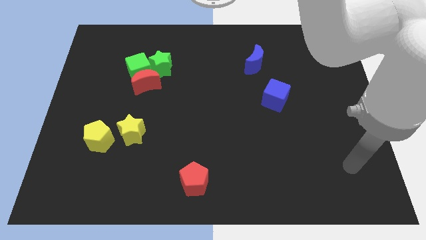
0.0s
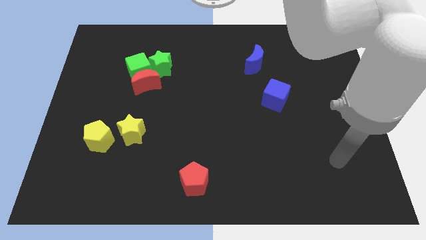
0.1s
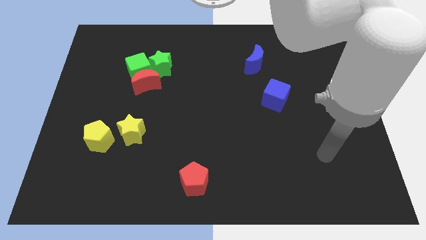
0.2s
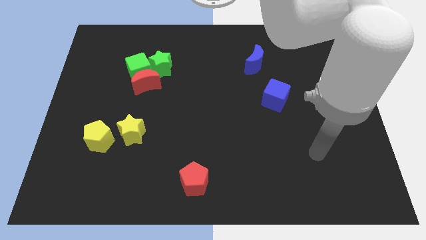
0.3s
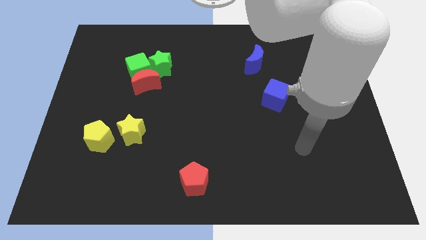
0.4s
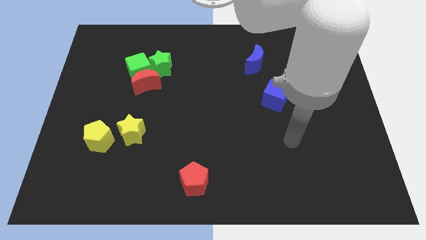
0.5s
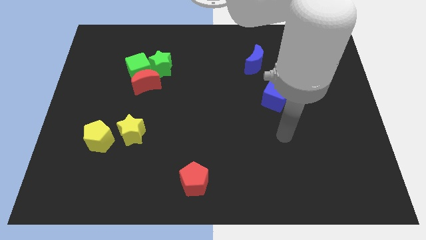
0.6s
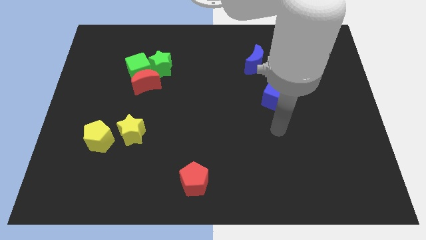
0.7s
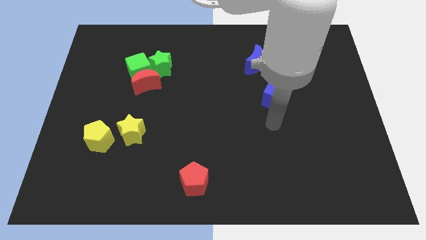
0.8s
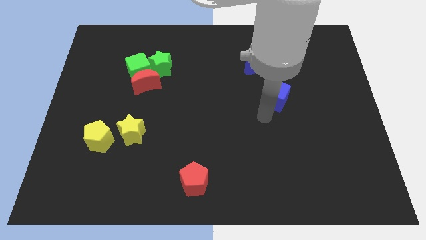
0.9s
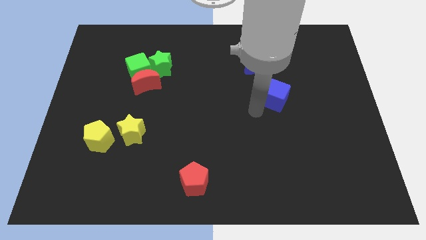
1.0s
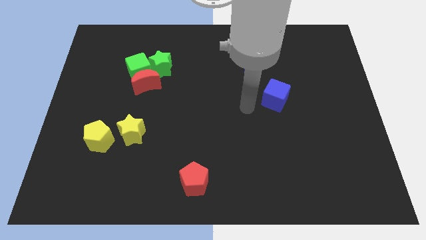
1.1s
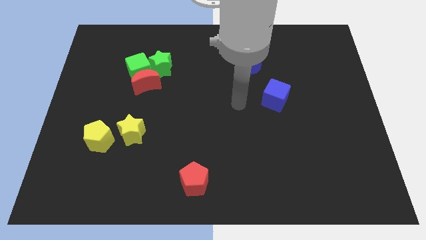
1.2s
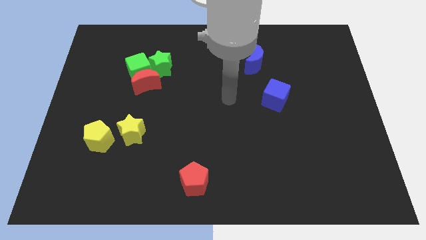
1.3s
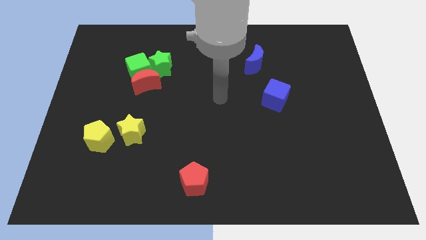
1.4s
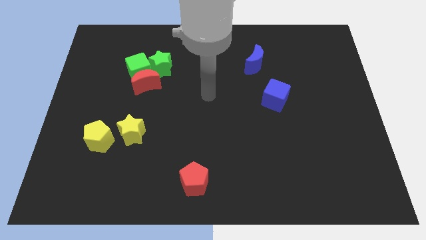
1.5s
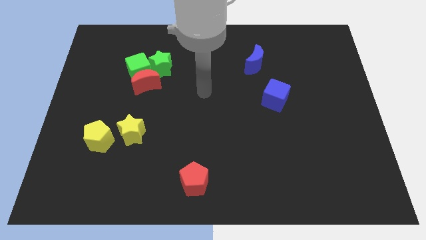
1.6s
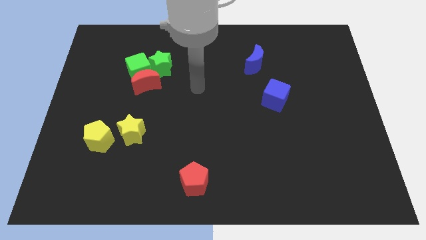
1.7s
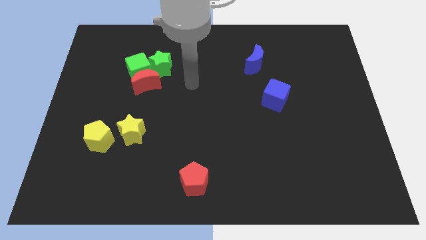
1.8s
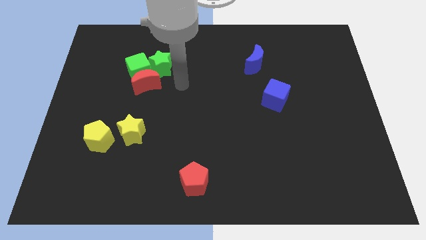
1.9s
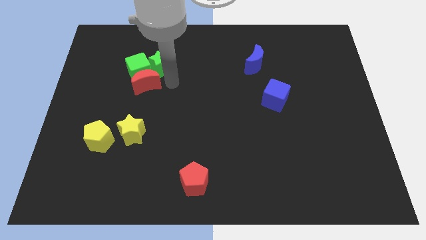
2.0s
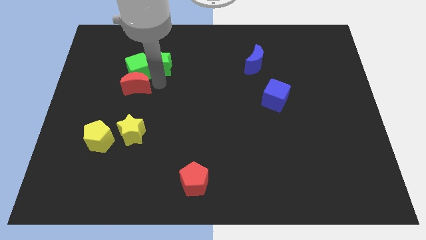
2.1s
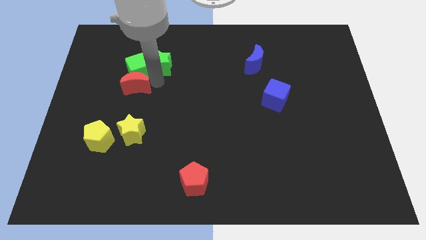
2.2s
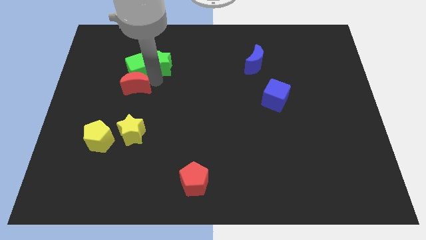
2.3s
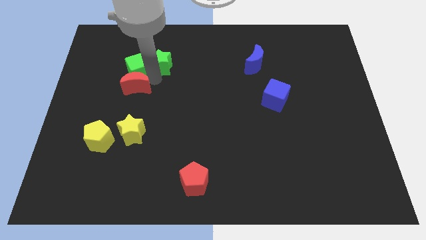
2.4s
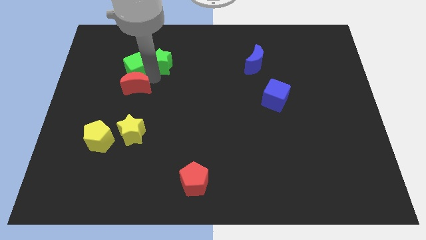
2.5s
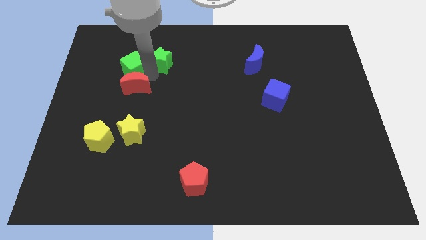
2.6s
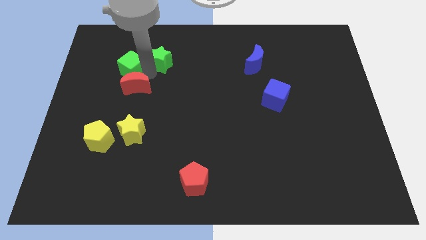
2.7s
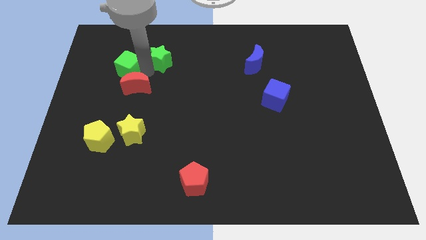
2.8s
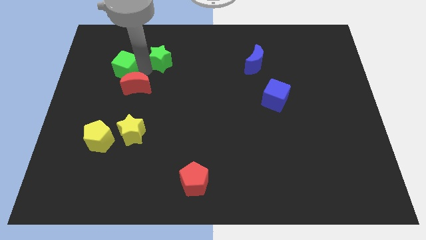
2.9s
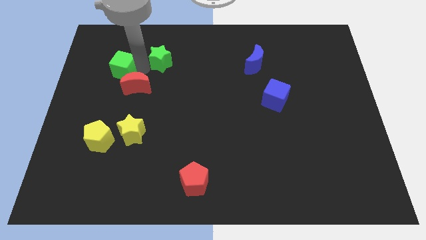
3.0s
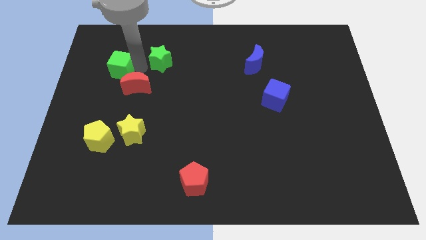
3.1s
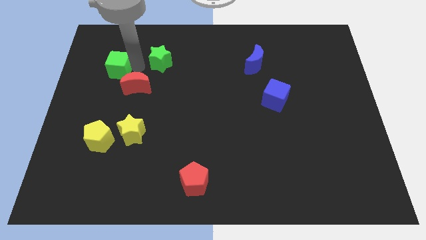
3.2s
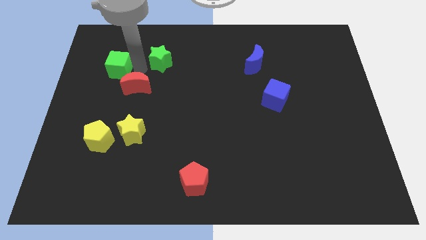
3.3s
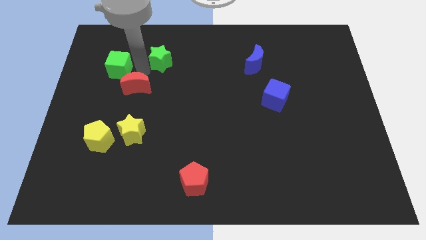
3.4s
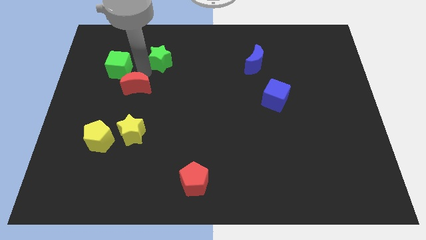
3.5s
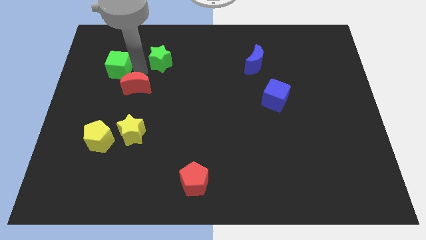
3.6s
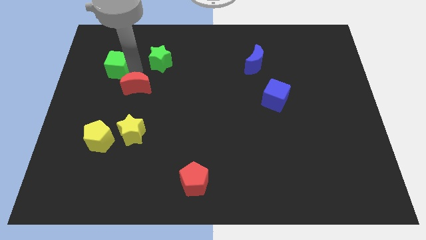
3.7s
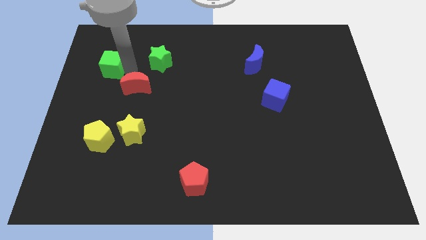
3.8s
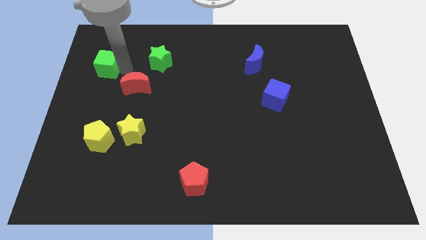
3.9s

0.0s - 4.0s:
separate the green cube from the red moon and green star

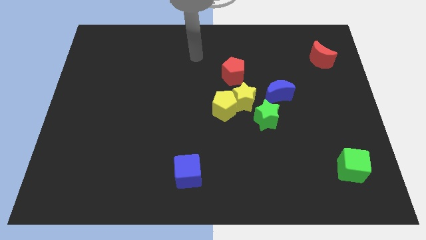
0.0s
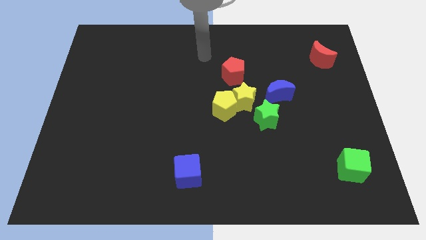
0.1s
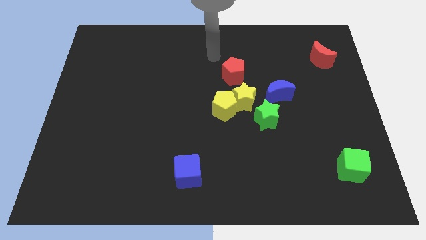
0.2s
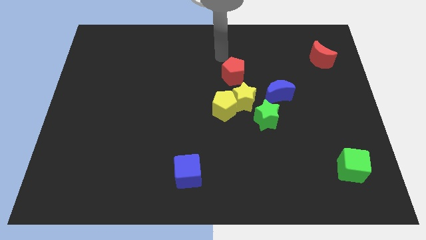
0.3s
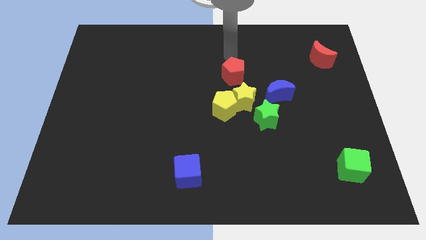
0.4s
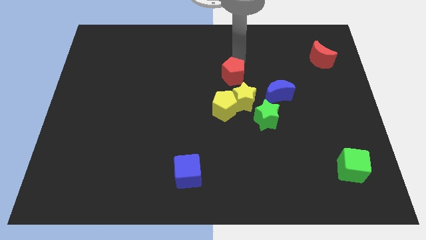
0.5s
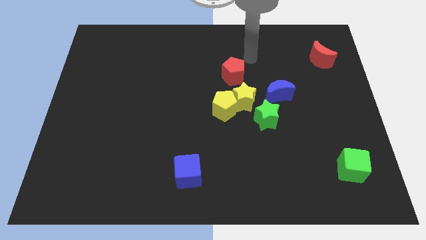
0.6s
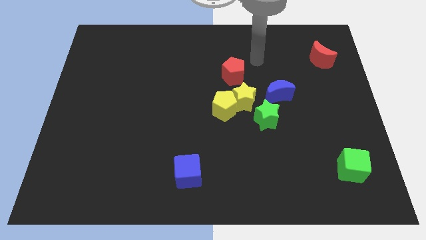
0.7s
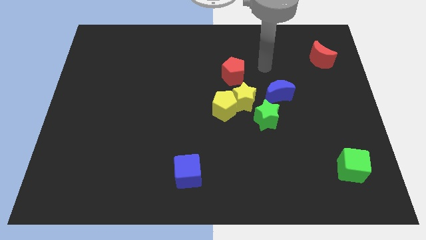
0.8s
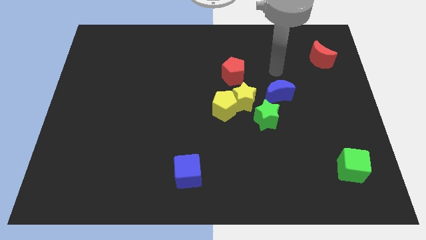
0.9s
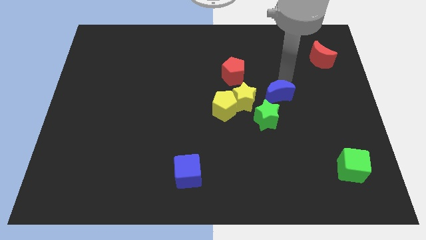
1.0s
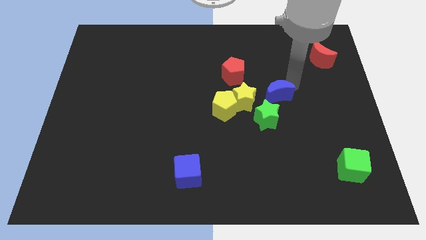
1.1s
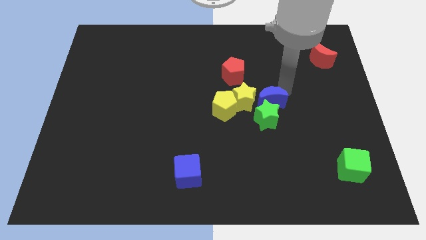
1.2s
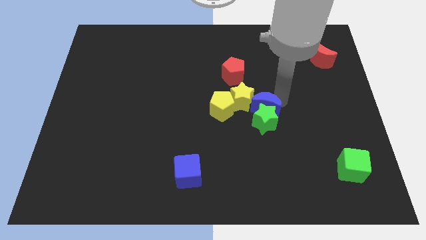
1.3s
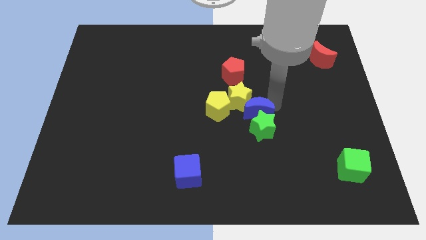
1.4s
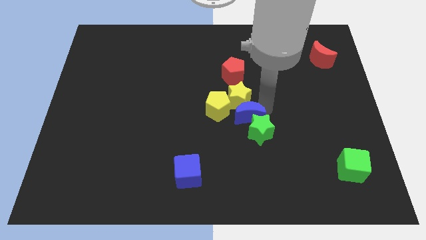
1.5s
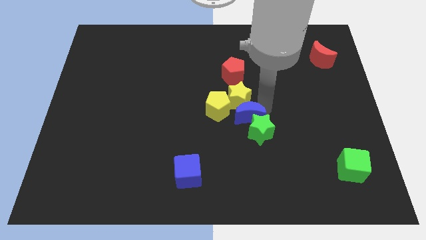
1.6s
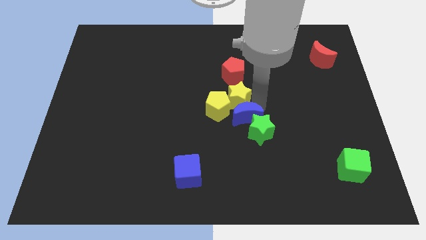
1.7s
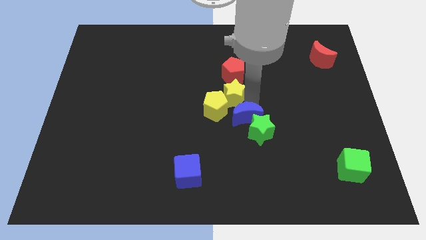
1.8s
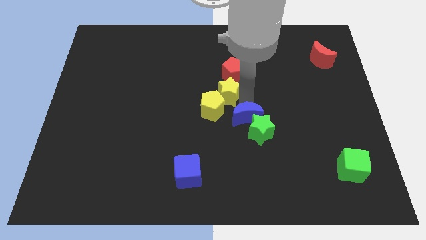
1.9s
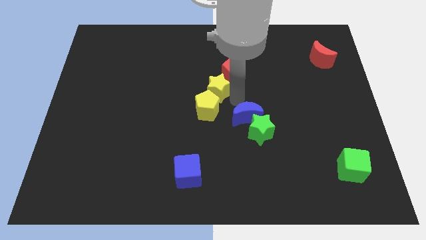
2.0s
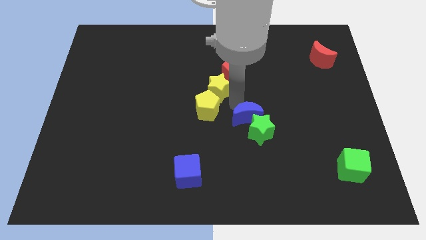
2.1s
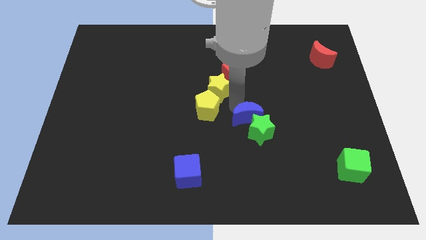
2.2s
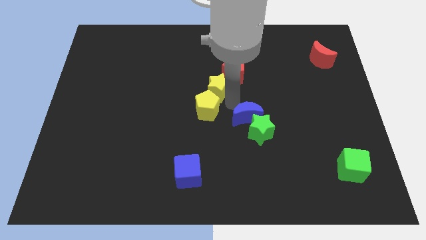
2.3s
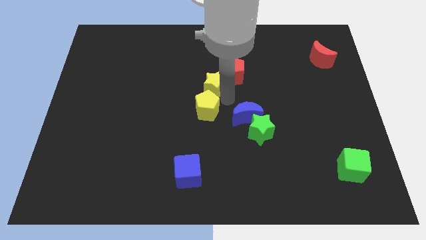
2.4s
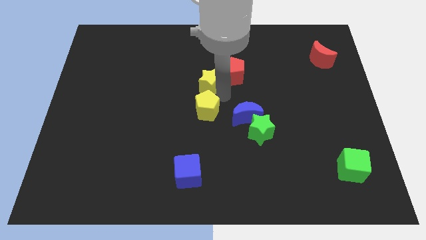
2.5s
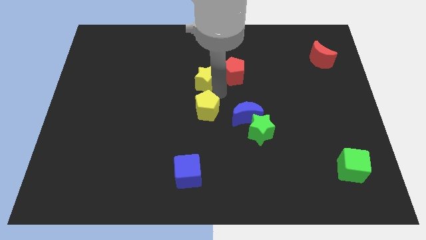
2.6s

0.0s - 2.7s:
move the yellow star away from the group

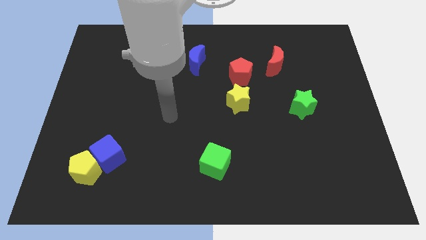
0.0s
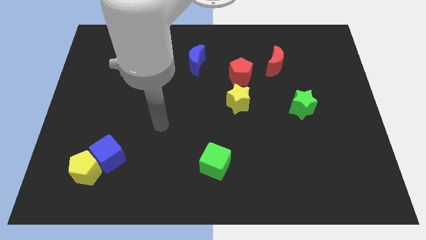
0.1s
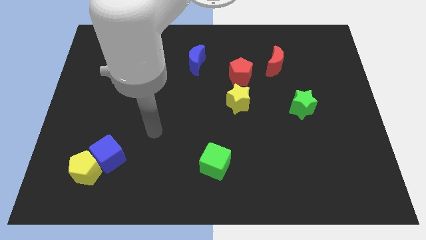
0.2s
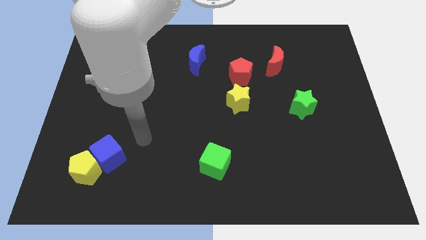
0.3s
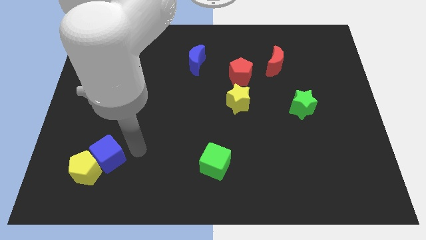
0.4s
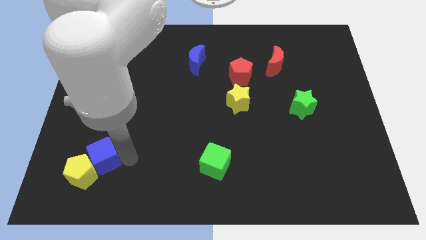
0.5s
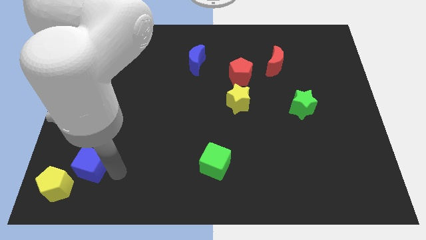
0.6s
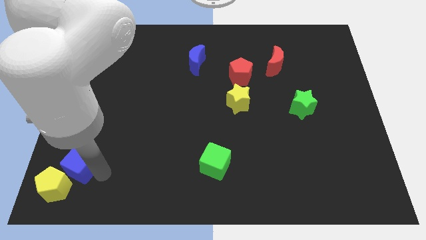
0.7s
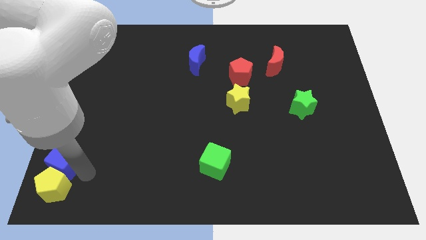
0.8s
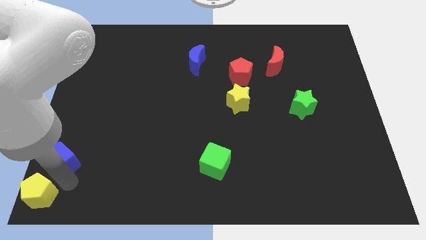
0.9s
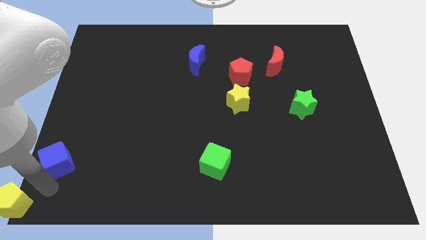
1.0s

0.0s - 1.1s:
separate the blue cube from the yellow pentagon

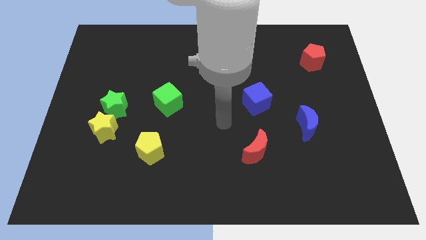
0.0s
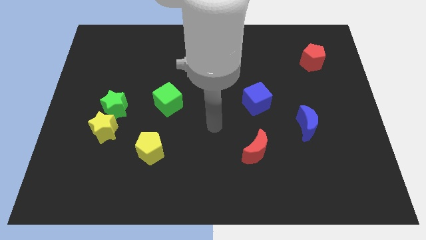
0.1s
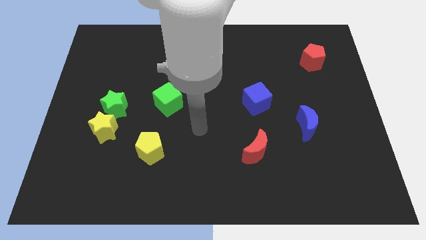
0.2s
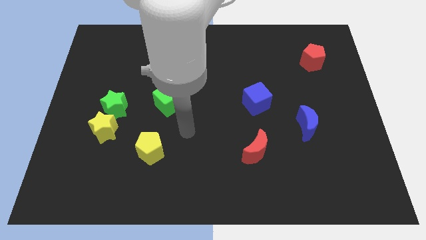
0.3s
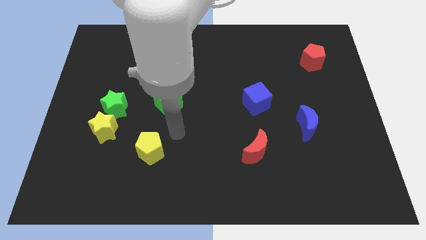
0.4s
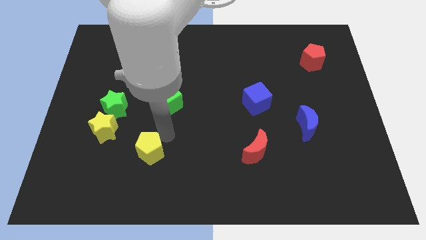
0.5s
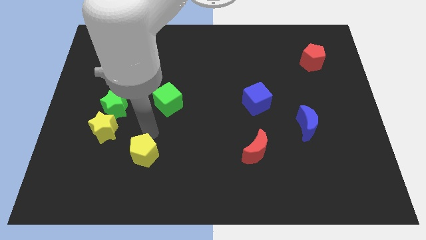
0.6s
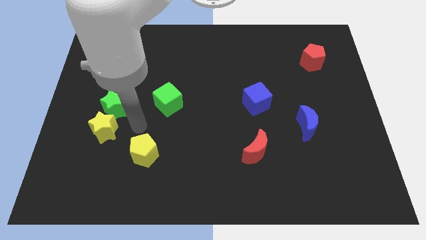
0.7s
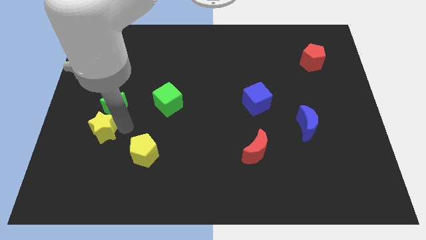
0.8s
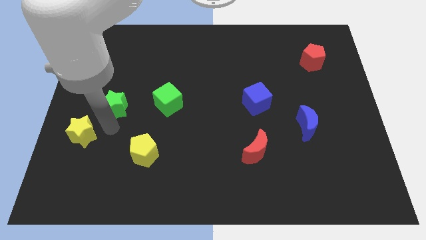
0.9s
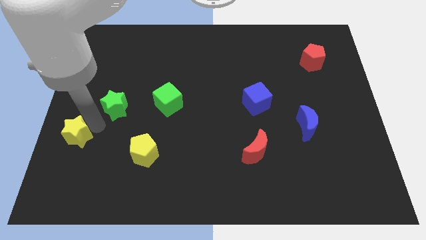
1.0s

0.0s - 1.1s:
separate the green star from the yellow star

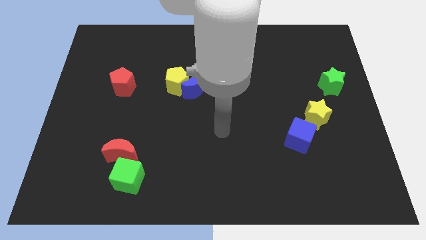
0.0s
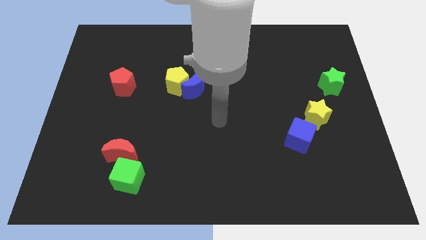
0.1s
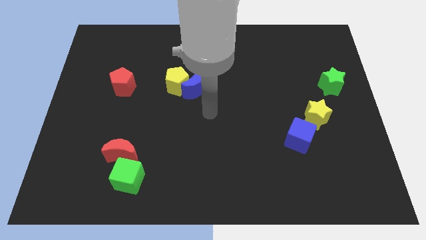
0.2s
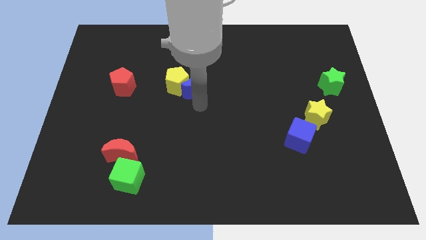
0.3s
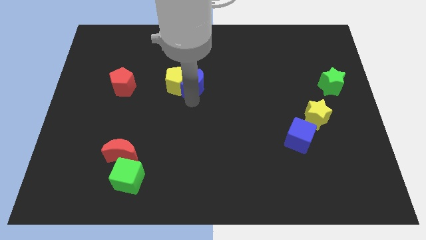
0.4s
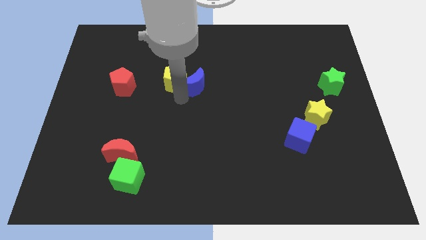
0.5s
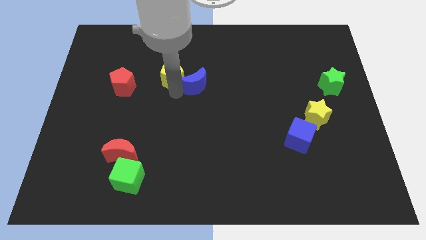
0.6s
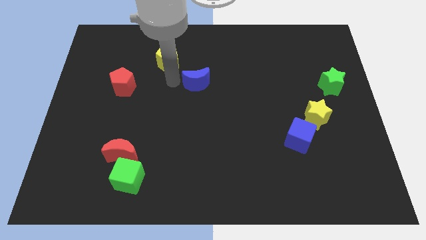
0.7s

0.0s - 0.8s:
move the blue moon away from the yellow pentagon
